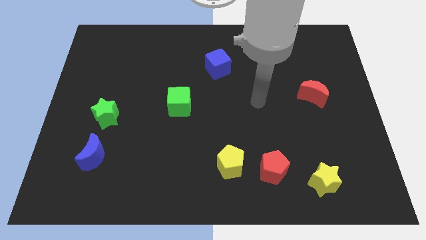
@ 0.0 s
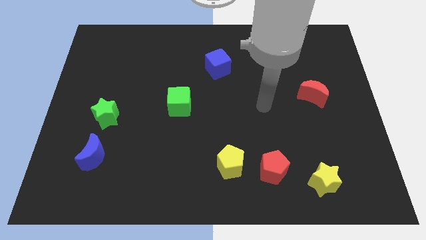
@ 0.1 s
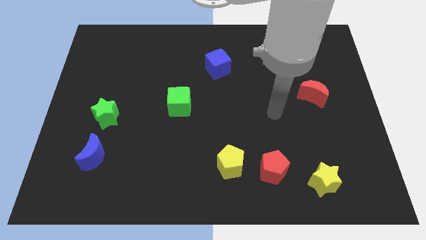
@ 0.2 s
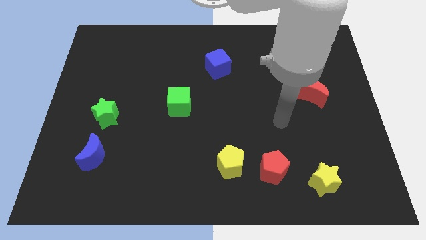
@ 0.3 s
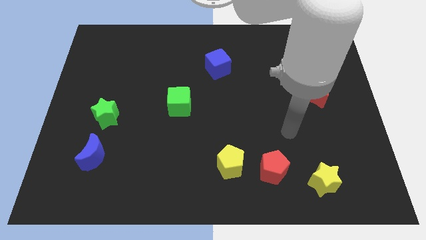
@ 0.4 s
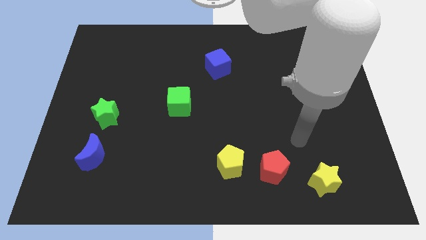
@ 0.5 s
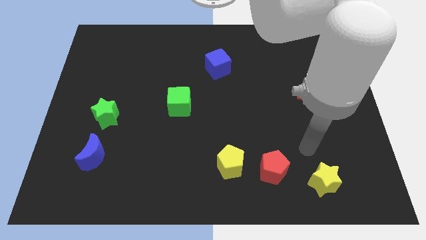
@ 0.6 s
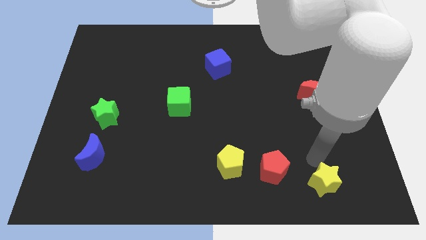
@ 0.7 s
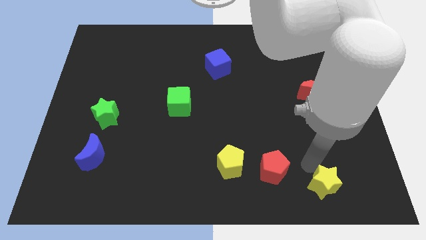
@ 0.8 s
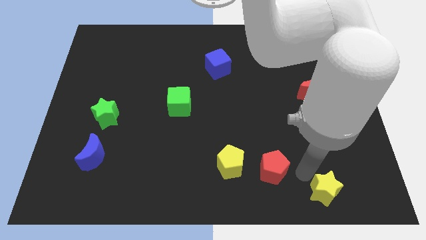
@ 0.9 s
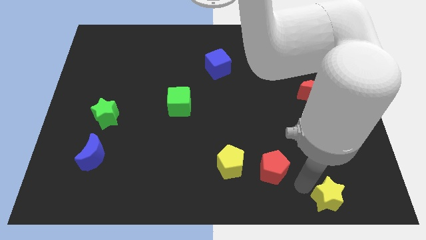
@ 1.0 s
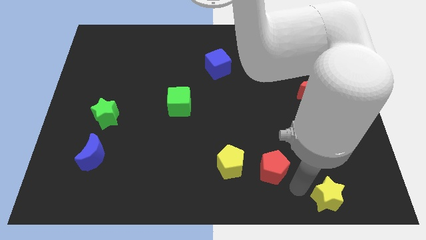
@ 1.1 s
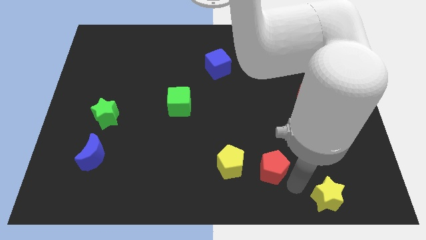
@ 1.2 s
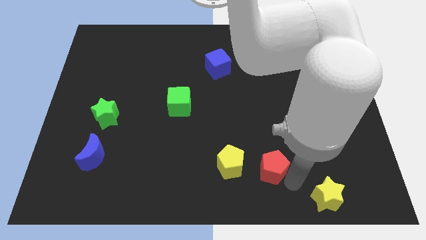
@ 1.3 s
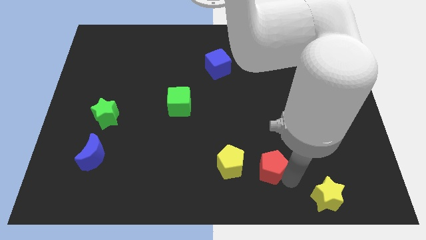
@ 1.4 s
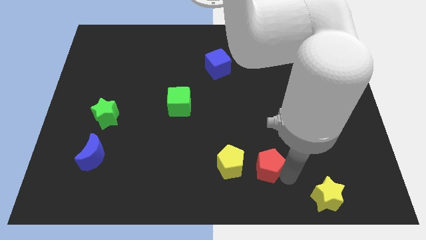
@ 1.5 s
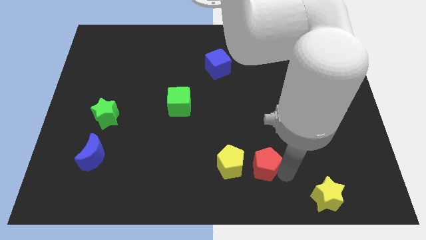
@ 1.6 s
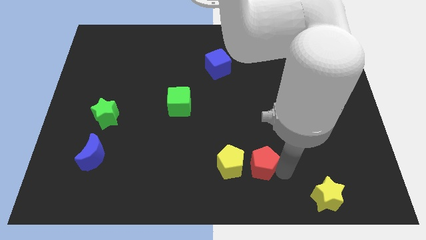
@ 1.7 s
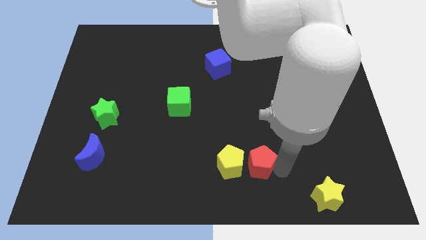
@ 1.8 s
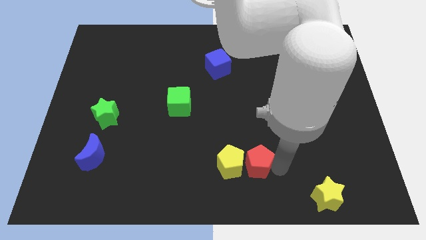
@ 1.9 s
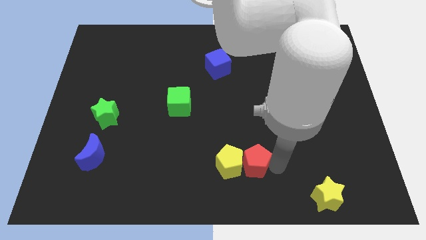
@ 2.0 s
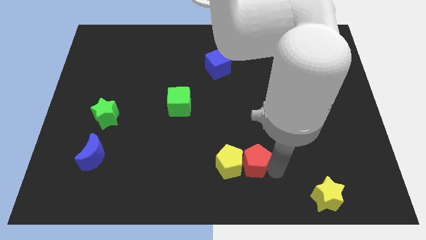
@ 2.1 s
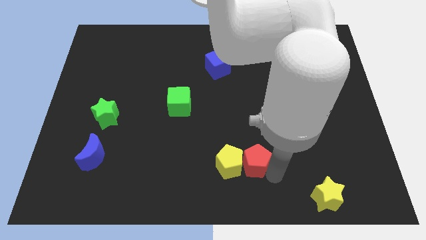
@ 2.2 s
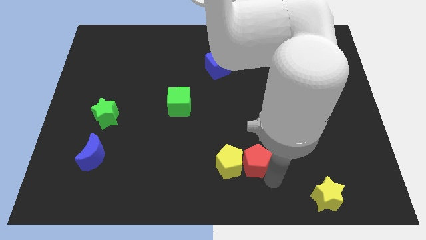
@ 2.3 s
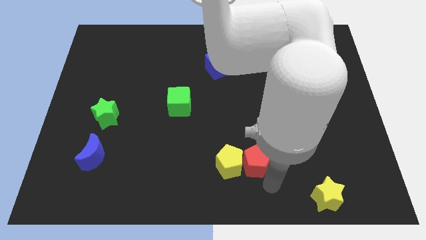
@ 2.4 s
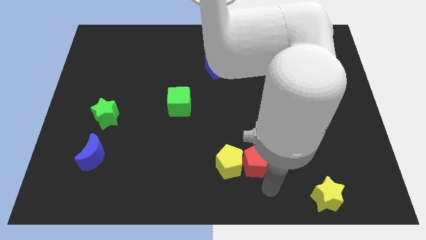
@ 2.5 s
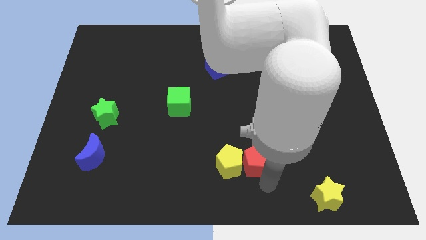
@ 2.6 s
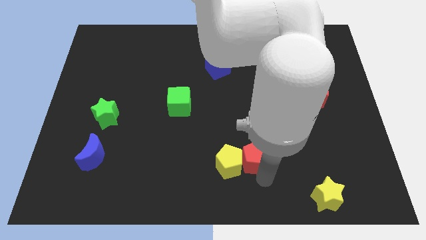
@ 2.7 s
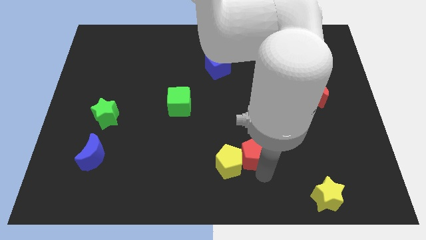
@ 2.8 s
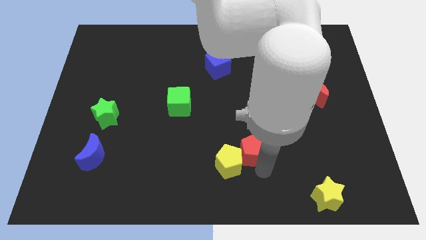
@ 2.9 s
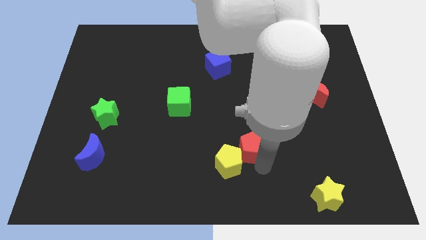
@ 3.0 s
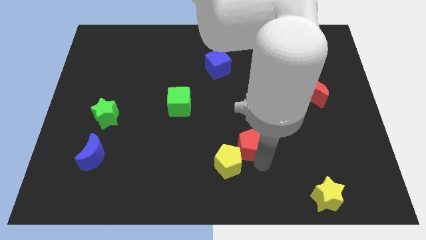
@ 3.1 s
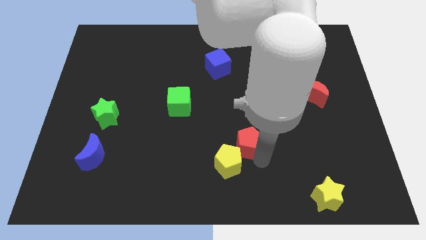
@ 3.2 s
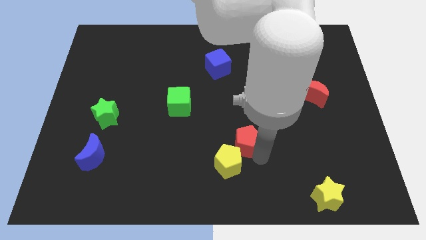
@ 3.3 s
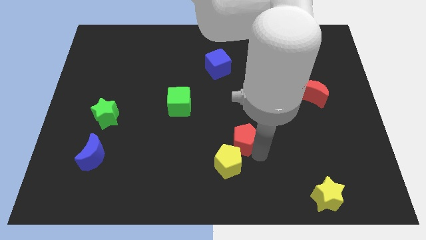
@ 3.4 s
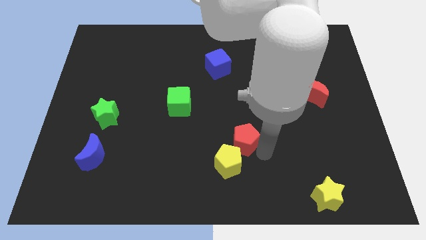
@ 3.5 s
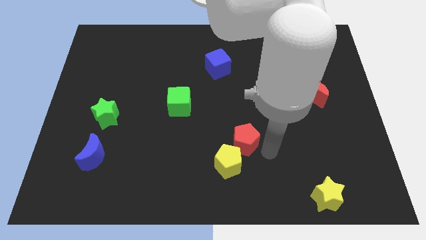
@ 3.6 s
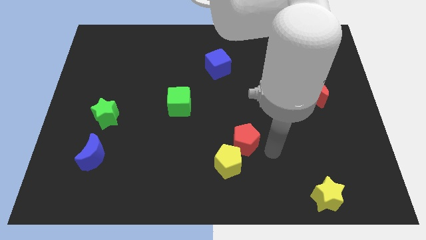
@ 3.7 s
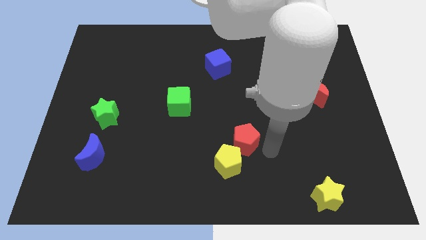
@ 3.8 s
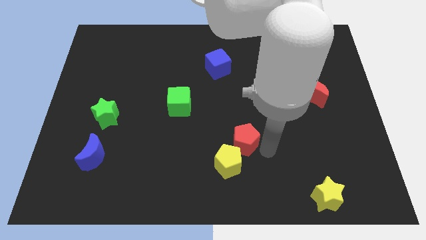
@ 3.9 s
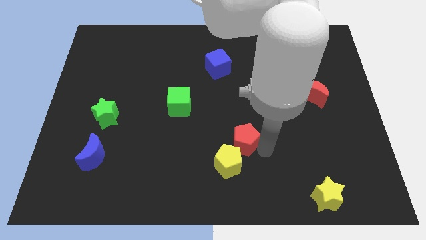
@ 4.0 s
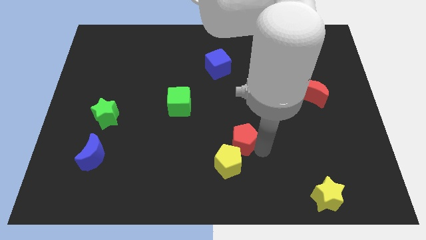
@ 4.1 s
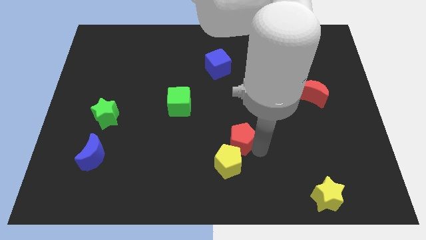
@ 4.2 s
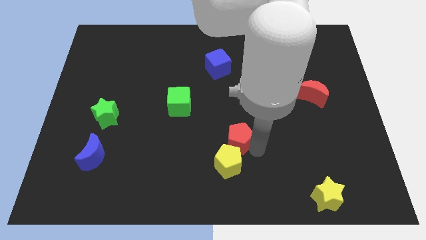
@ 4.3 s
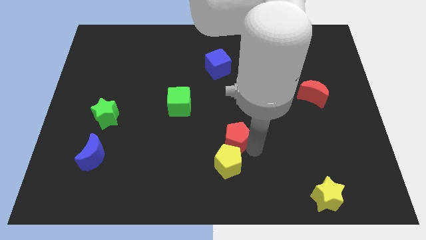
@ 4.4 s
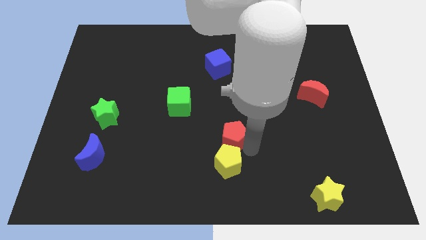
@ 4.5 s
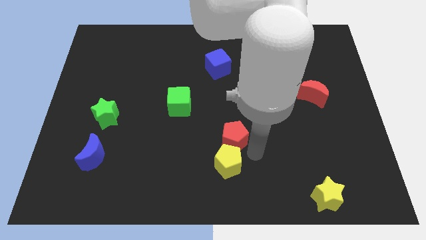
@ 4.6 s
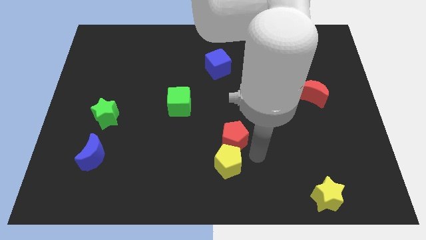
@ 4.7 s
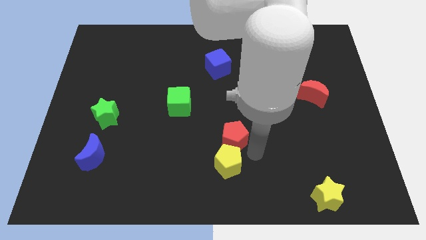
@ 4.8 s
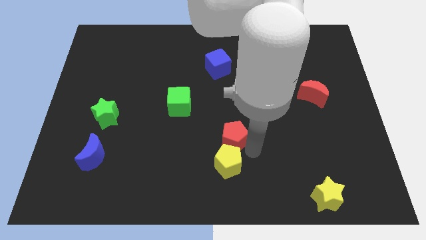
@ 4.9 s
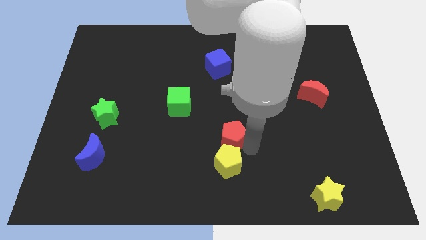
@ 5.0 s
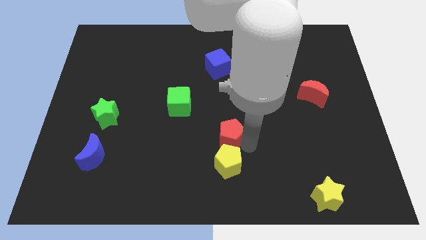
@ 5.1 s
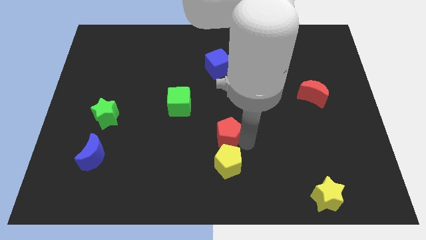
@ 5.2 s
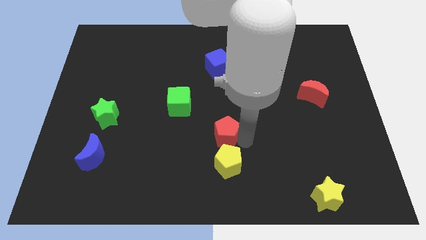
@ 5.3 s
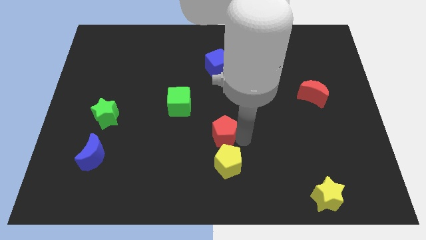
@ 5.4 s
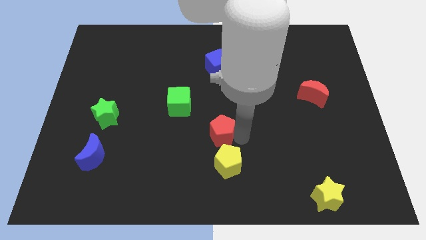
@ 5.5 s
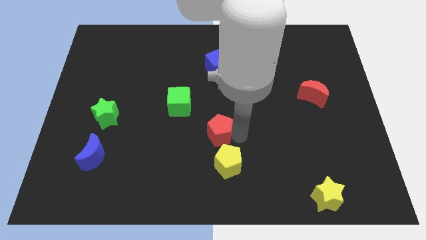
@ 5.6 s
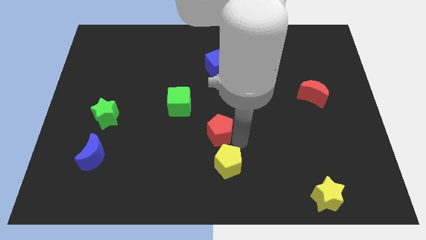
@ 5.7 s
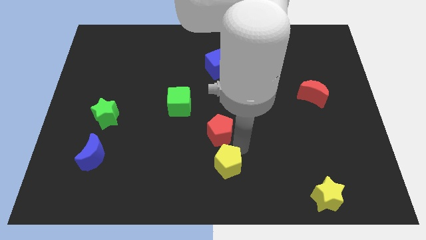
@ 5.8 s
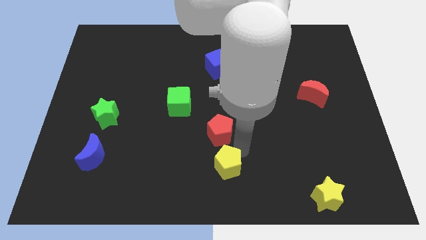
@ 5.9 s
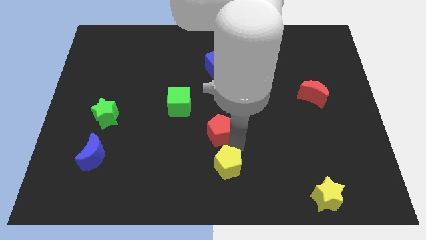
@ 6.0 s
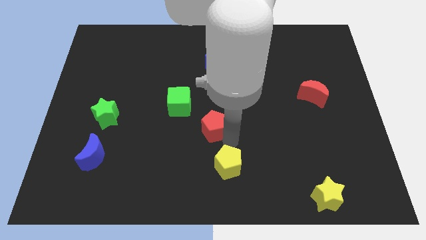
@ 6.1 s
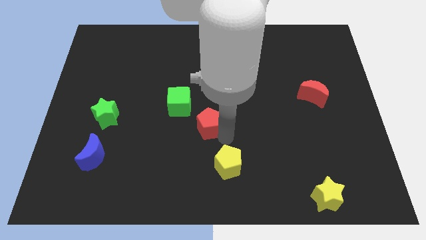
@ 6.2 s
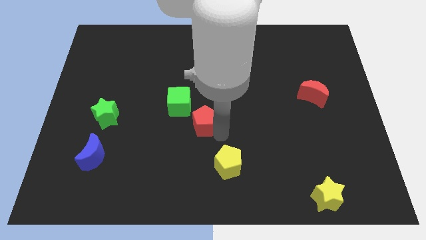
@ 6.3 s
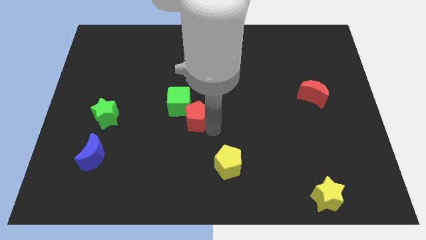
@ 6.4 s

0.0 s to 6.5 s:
push the red pentagon towards the green cube

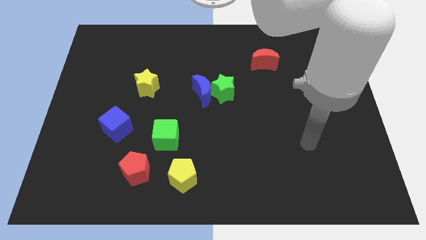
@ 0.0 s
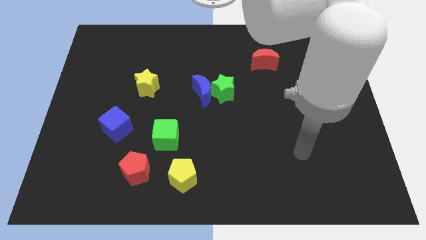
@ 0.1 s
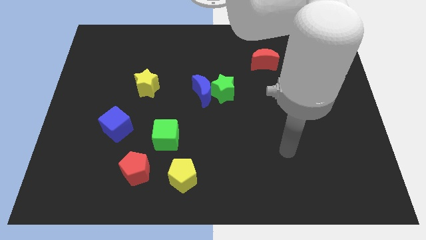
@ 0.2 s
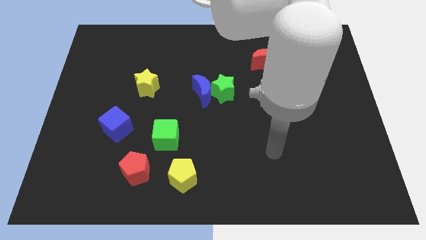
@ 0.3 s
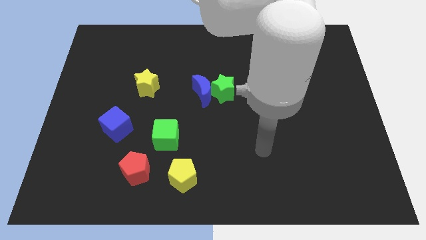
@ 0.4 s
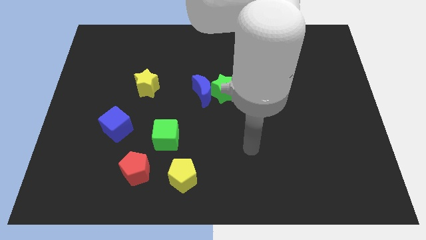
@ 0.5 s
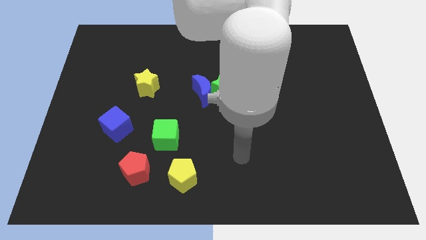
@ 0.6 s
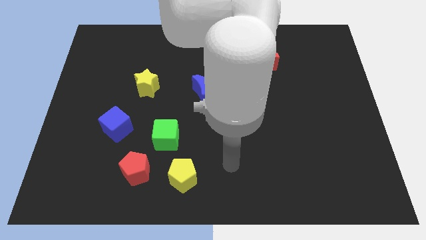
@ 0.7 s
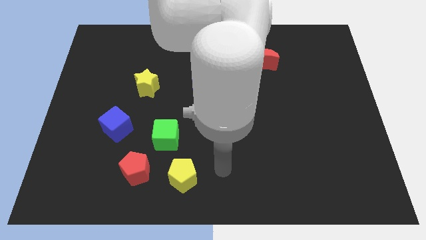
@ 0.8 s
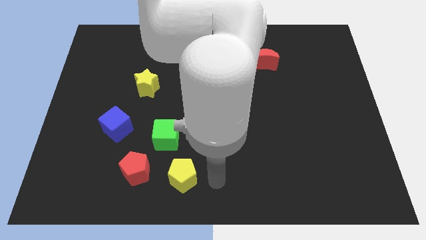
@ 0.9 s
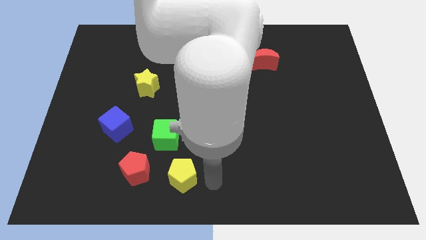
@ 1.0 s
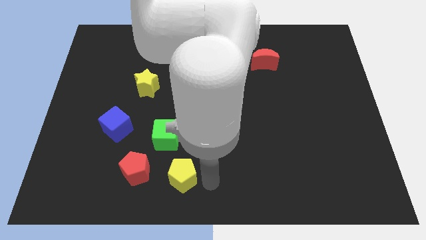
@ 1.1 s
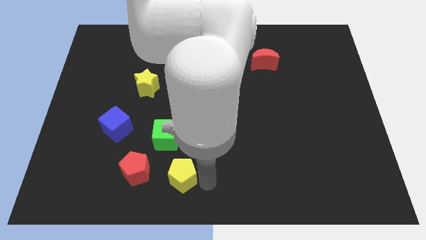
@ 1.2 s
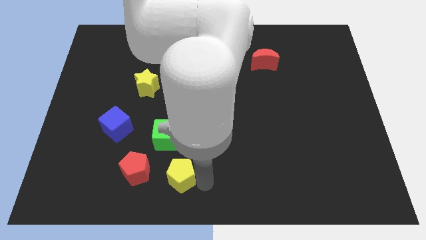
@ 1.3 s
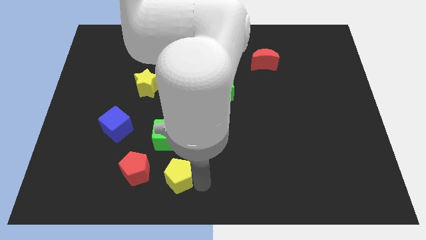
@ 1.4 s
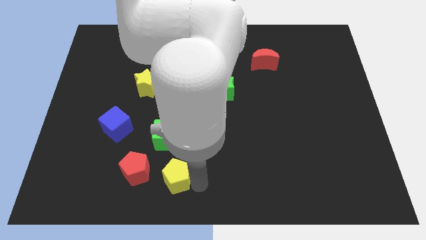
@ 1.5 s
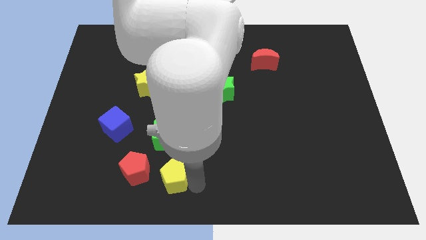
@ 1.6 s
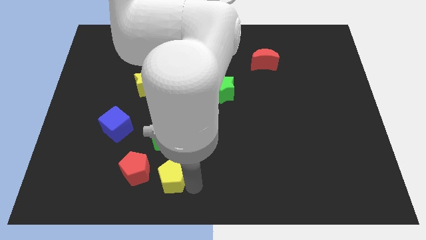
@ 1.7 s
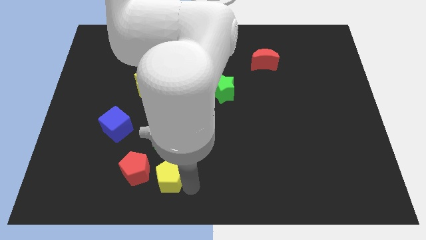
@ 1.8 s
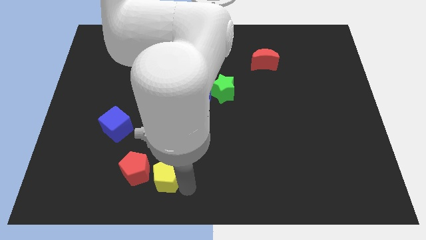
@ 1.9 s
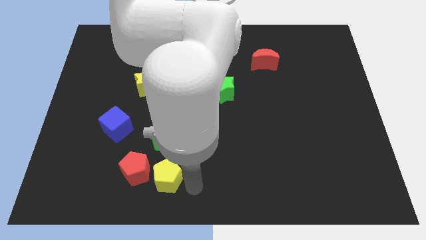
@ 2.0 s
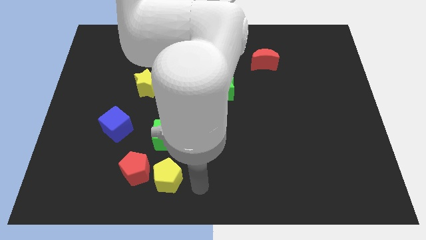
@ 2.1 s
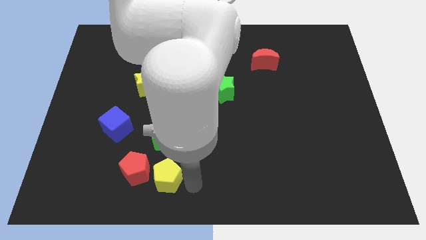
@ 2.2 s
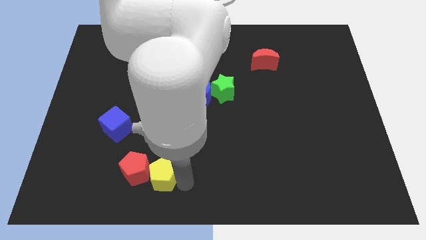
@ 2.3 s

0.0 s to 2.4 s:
push the yellow pentagon close to the red pentagon
